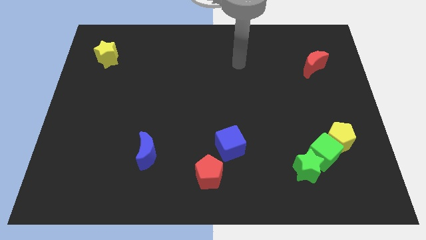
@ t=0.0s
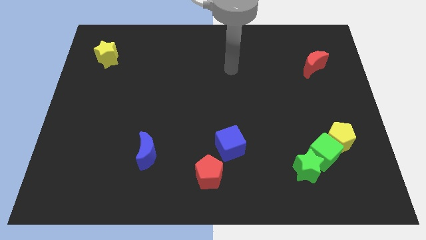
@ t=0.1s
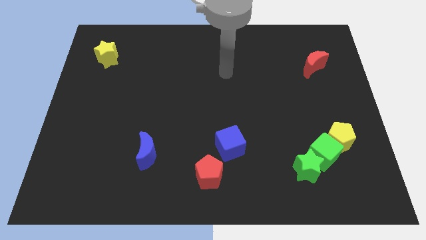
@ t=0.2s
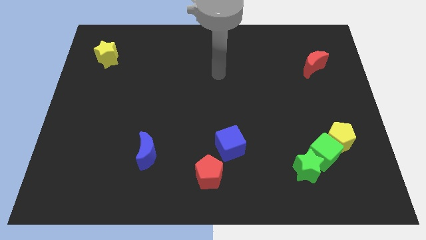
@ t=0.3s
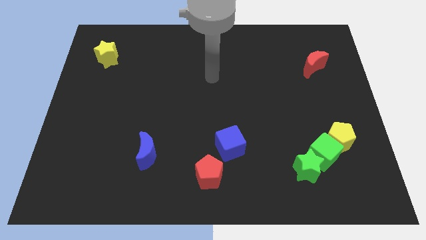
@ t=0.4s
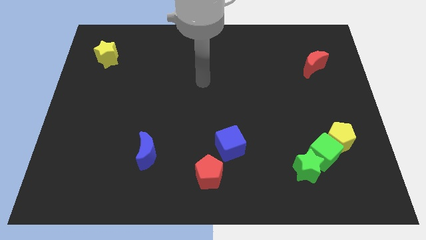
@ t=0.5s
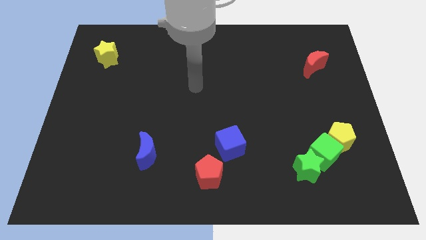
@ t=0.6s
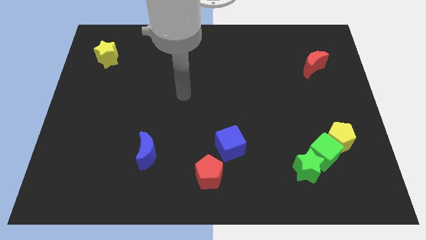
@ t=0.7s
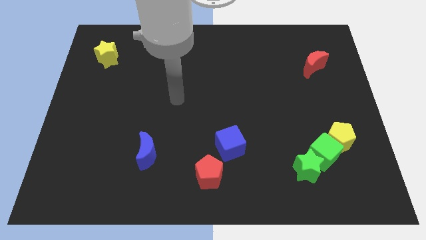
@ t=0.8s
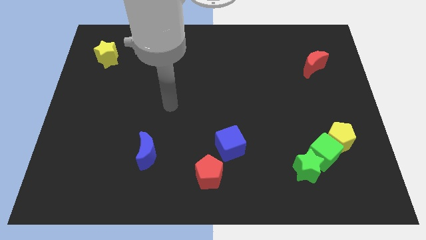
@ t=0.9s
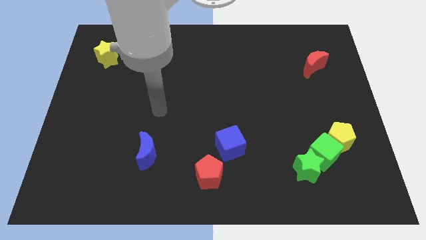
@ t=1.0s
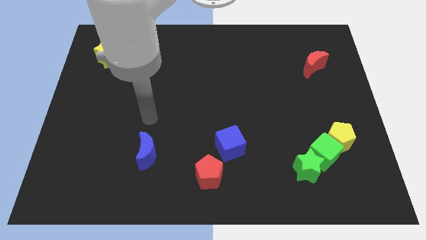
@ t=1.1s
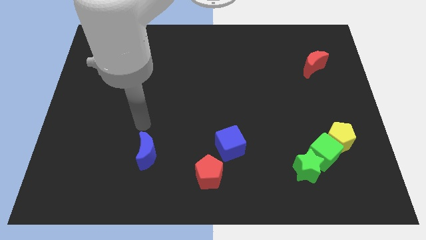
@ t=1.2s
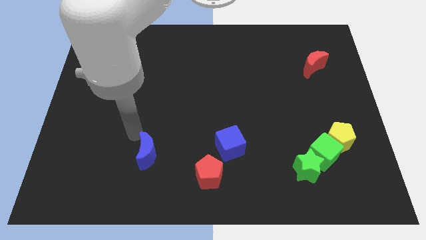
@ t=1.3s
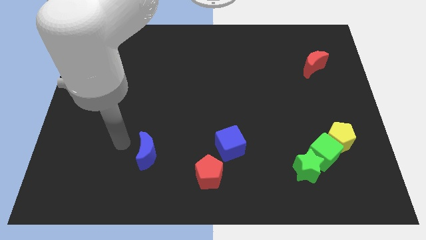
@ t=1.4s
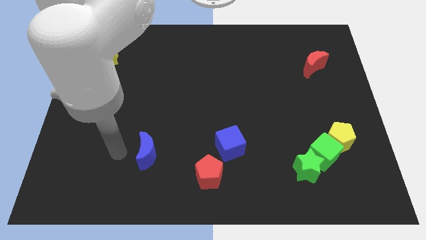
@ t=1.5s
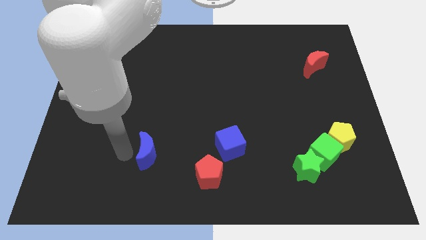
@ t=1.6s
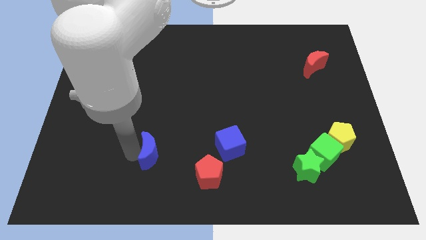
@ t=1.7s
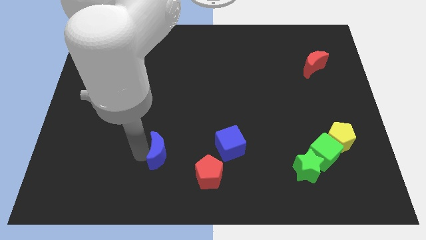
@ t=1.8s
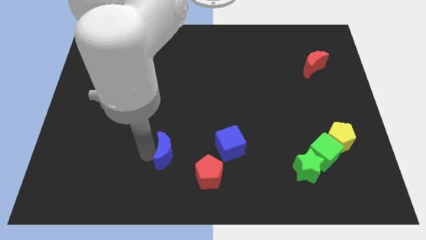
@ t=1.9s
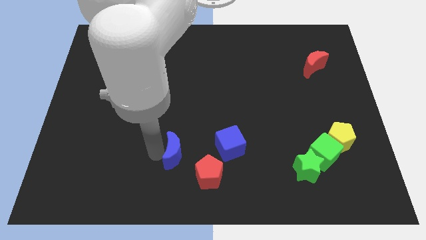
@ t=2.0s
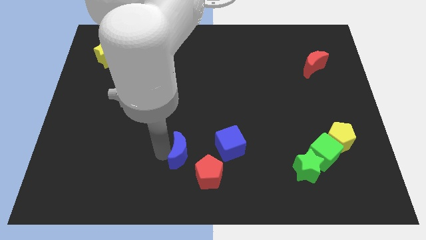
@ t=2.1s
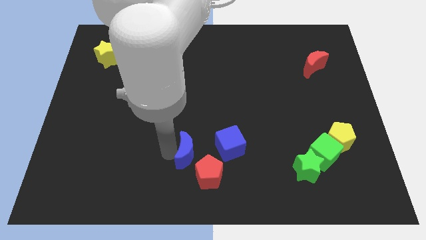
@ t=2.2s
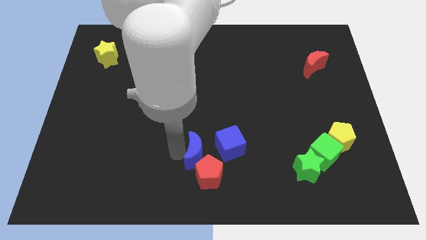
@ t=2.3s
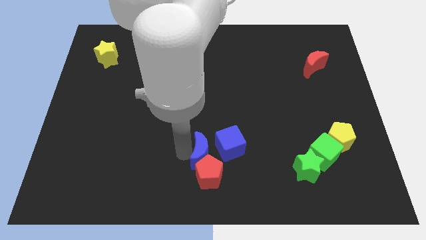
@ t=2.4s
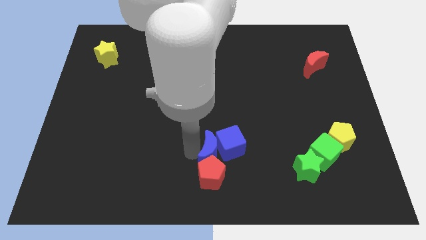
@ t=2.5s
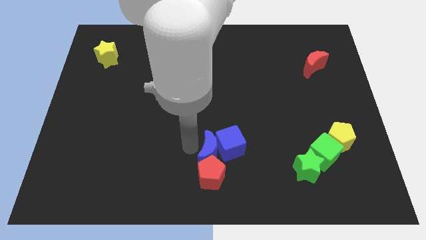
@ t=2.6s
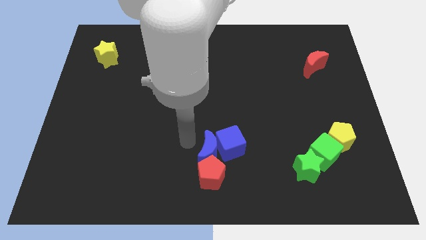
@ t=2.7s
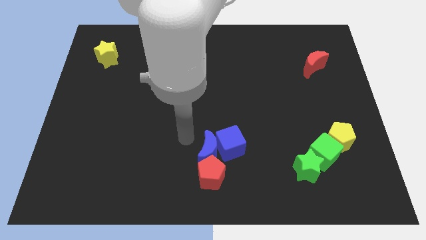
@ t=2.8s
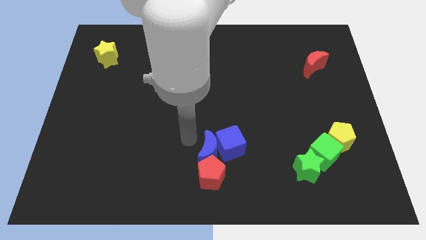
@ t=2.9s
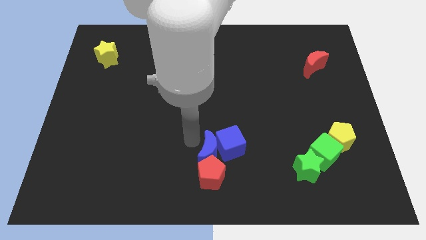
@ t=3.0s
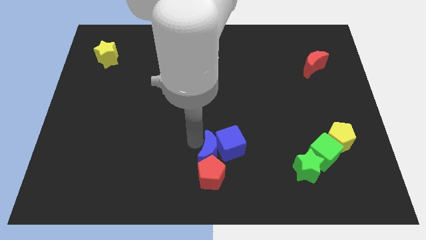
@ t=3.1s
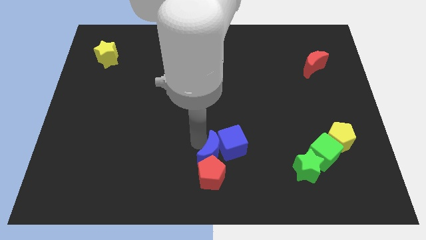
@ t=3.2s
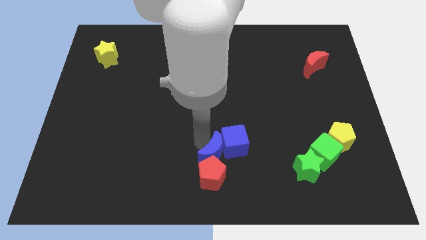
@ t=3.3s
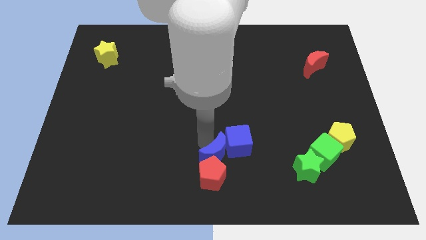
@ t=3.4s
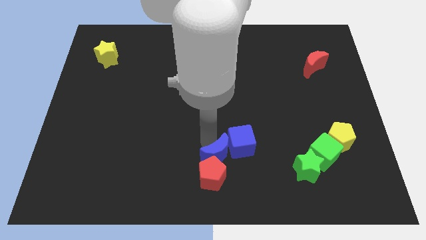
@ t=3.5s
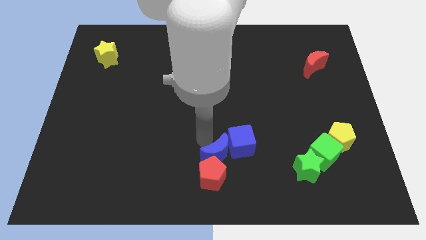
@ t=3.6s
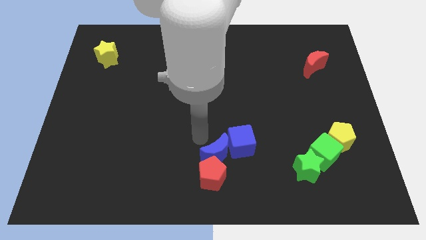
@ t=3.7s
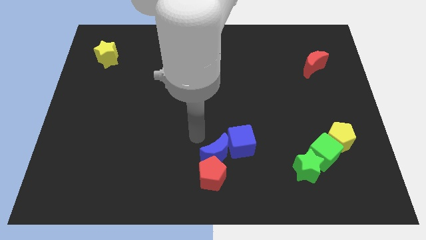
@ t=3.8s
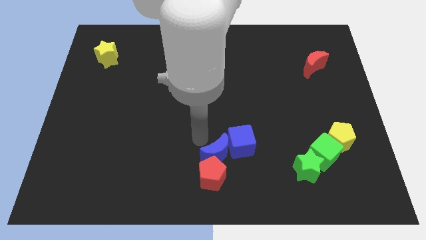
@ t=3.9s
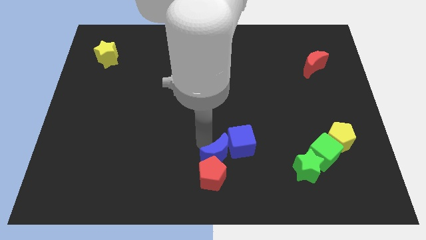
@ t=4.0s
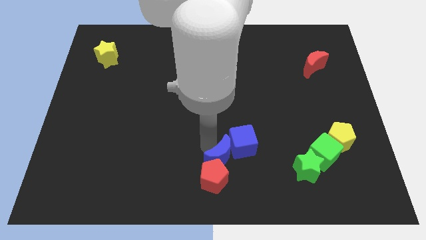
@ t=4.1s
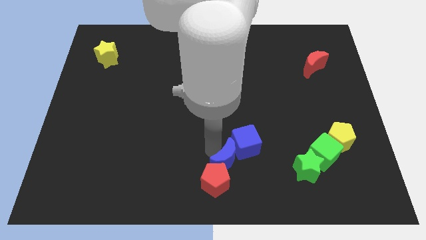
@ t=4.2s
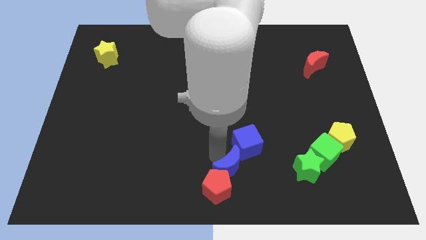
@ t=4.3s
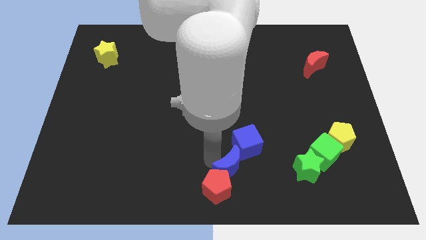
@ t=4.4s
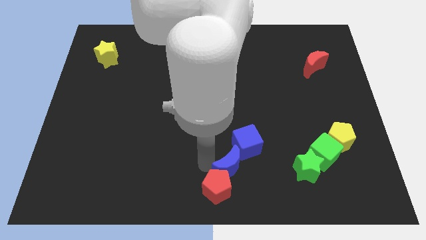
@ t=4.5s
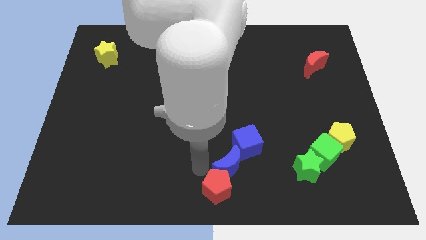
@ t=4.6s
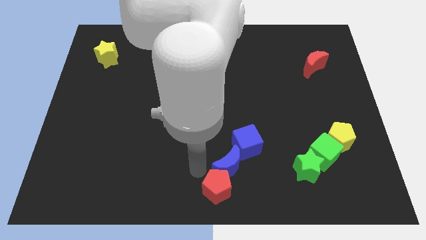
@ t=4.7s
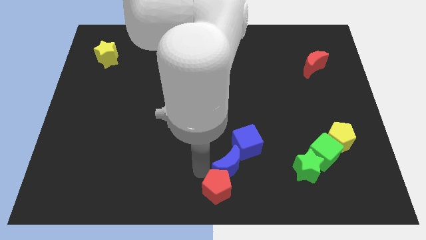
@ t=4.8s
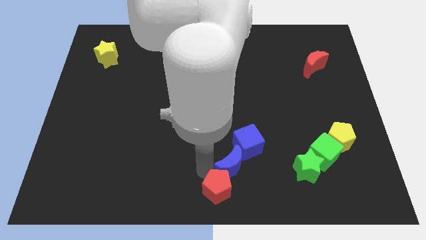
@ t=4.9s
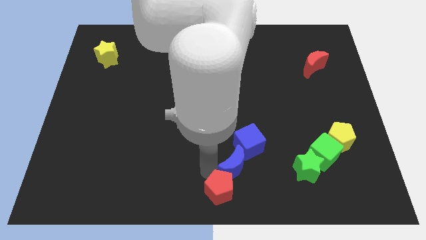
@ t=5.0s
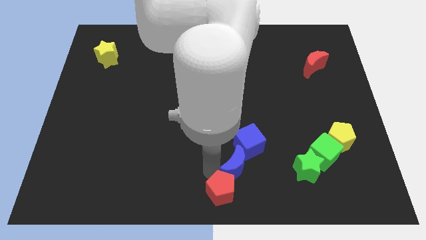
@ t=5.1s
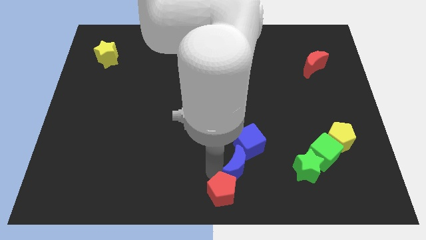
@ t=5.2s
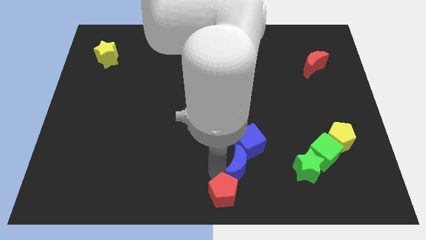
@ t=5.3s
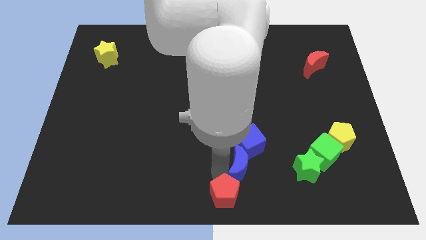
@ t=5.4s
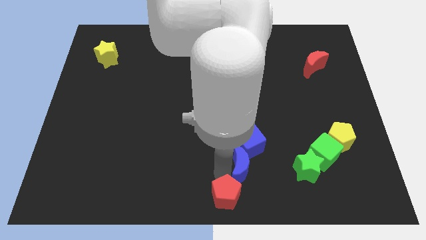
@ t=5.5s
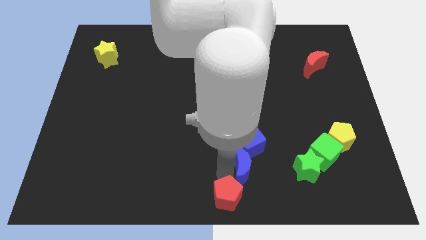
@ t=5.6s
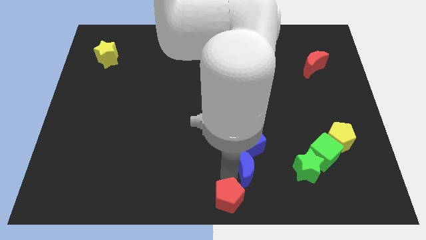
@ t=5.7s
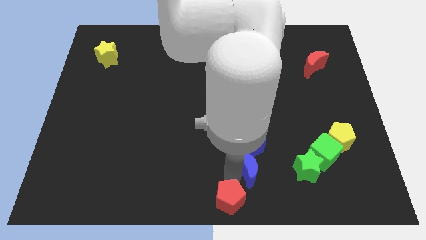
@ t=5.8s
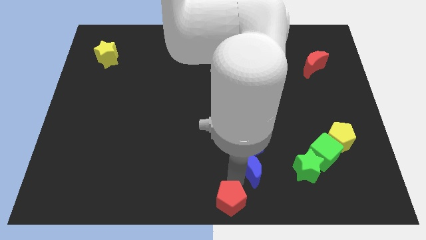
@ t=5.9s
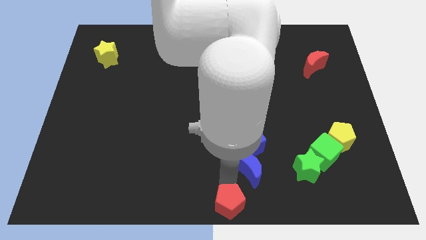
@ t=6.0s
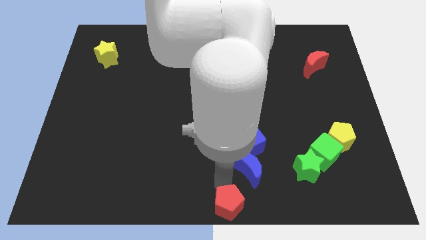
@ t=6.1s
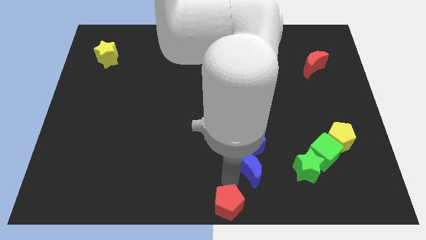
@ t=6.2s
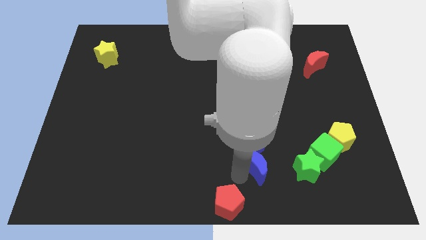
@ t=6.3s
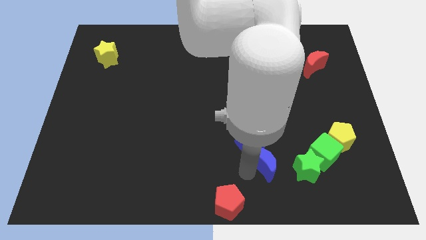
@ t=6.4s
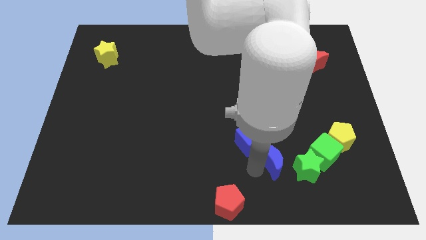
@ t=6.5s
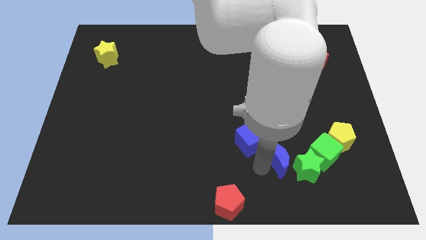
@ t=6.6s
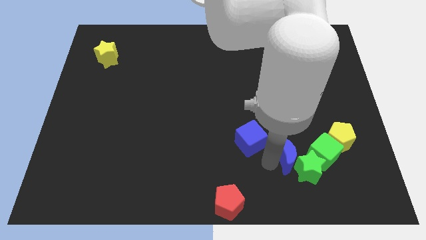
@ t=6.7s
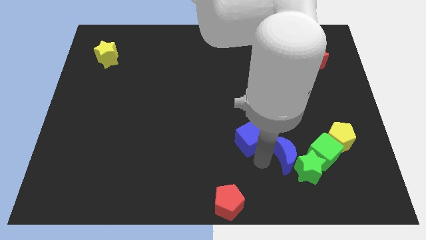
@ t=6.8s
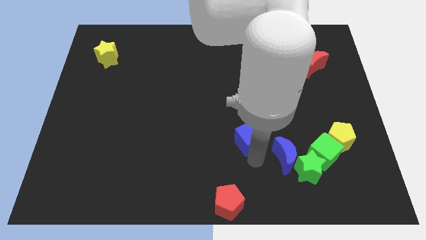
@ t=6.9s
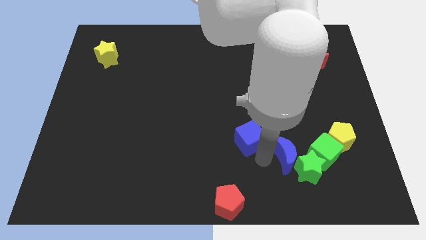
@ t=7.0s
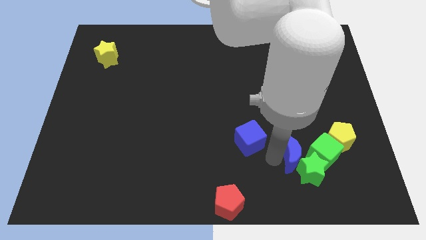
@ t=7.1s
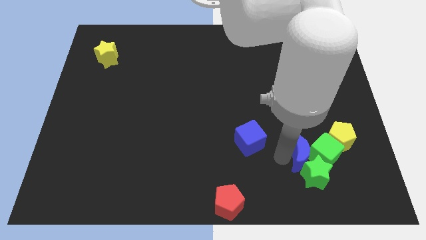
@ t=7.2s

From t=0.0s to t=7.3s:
push the blue moon to the green cube

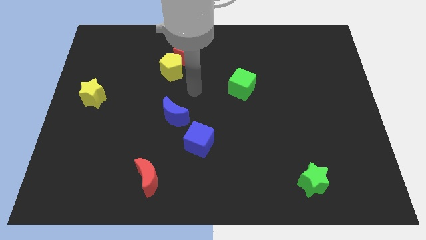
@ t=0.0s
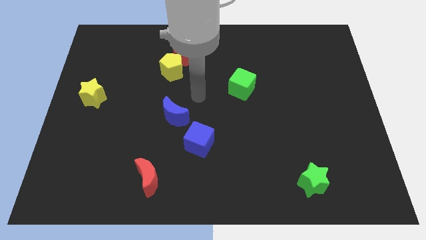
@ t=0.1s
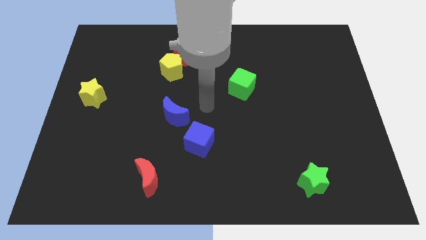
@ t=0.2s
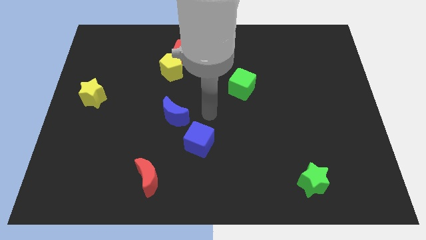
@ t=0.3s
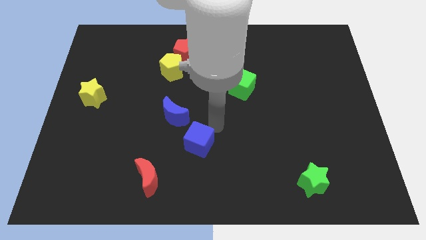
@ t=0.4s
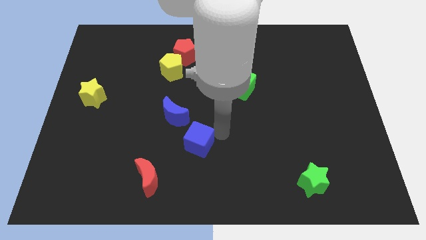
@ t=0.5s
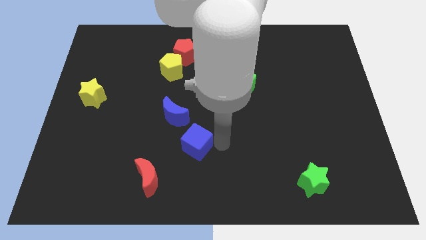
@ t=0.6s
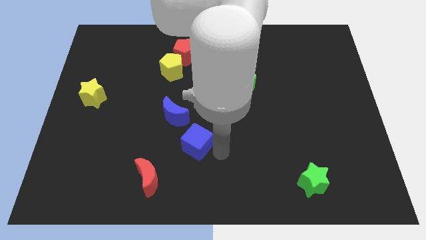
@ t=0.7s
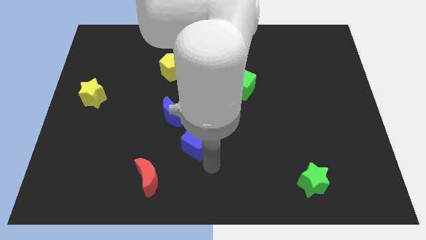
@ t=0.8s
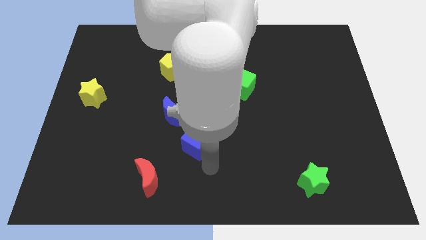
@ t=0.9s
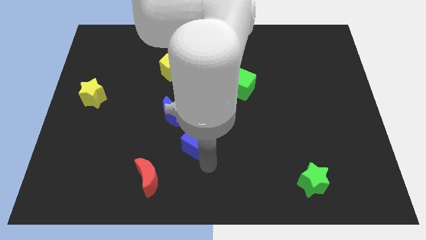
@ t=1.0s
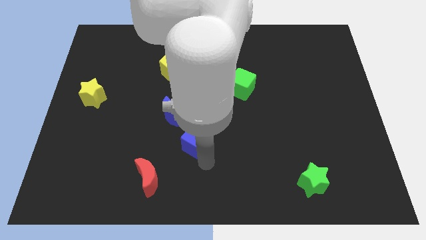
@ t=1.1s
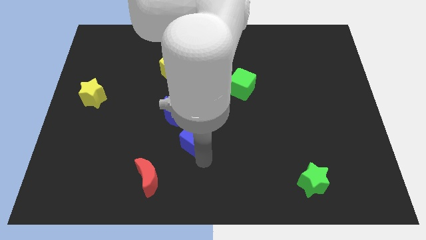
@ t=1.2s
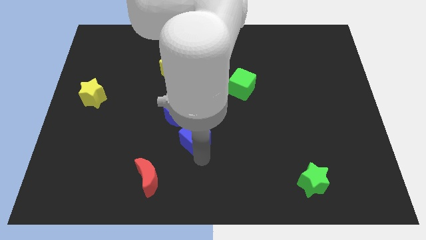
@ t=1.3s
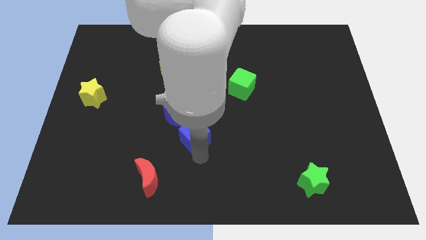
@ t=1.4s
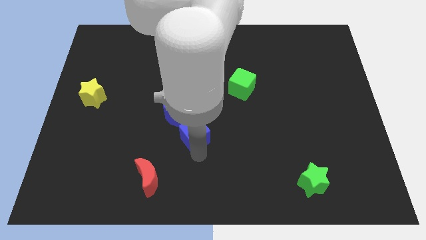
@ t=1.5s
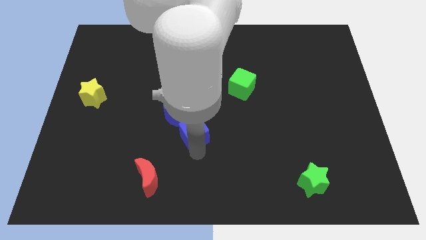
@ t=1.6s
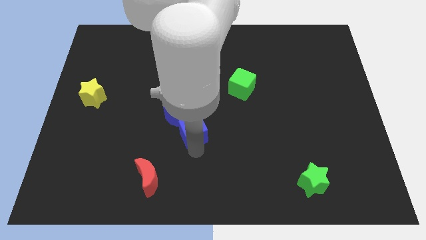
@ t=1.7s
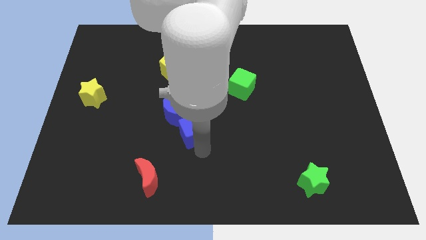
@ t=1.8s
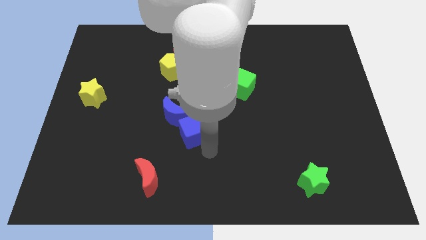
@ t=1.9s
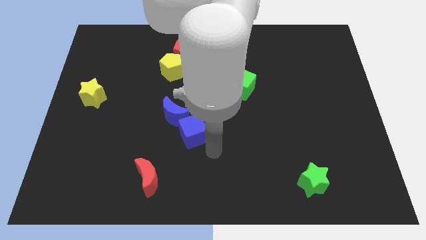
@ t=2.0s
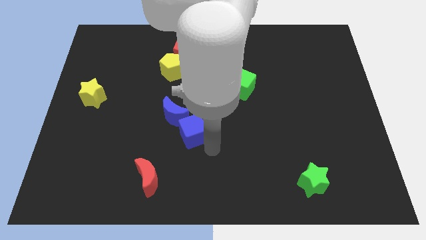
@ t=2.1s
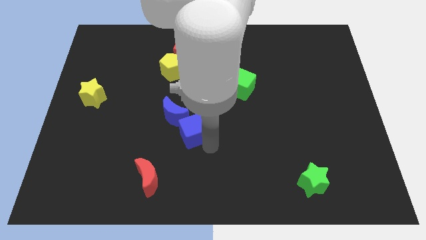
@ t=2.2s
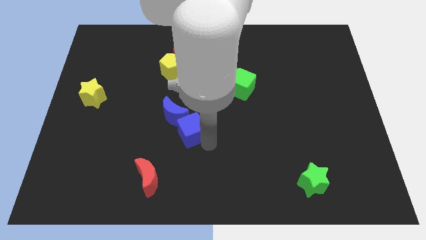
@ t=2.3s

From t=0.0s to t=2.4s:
move the blue cube next to the blue moon
